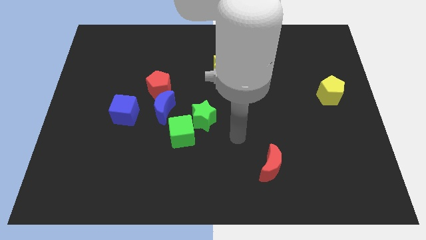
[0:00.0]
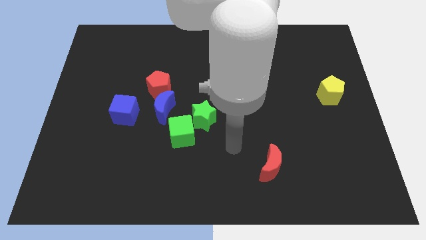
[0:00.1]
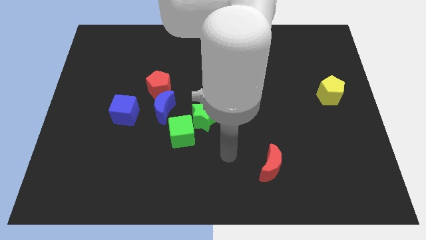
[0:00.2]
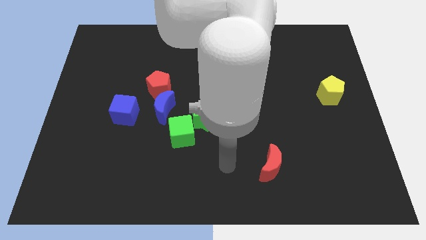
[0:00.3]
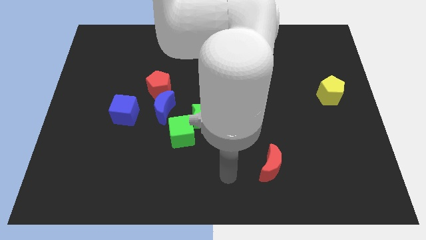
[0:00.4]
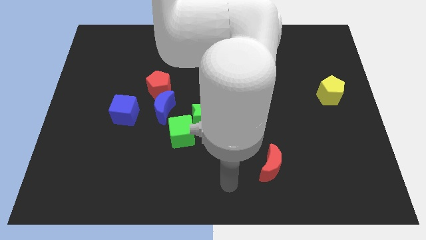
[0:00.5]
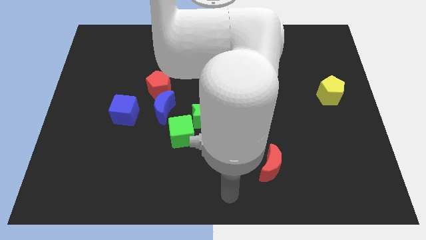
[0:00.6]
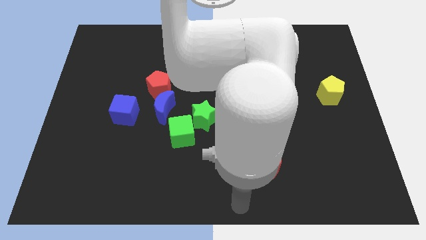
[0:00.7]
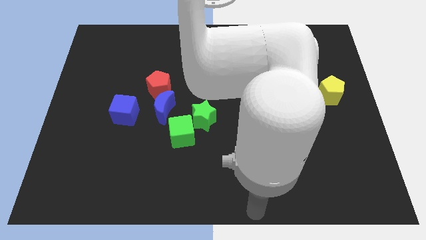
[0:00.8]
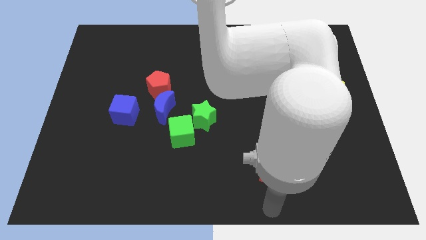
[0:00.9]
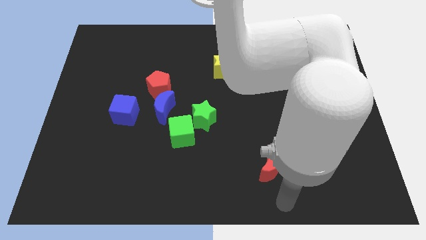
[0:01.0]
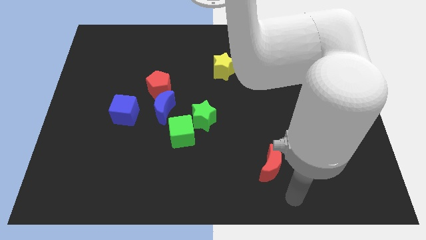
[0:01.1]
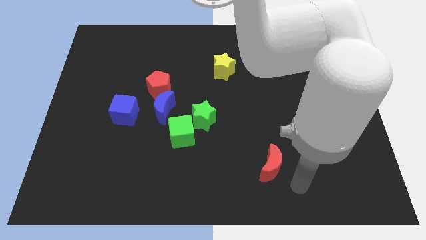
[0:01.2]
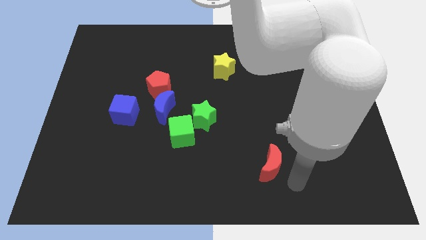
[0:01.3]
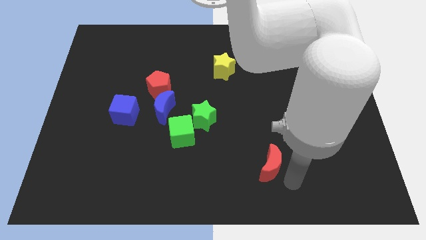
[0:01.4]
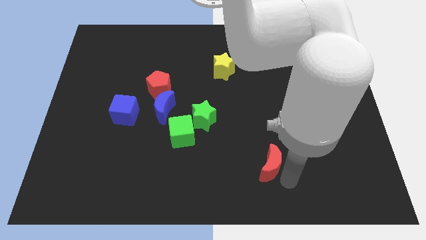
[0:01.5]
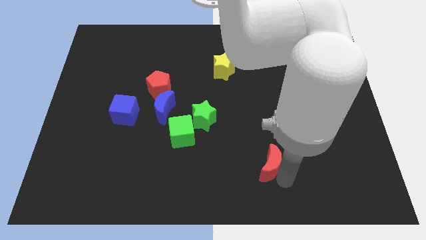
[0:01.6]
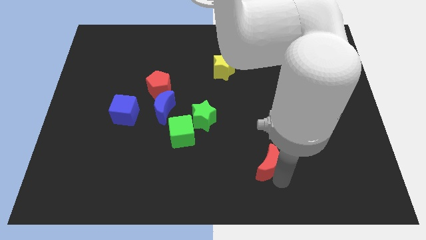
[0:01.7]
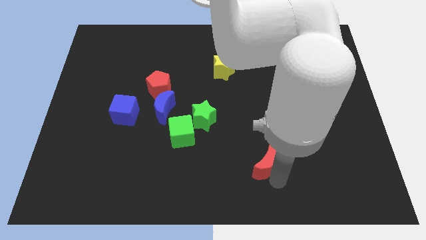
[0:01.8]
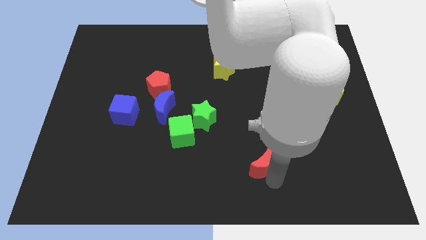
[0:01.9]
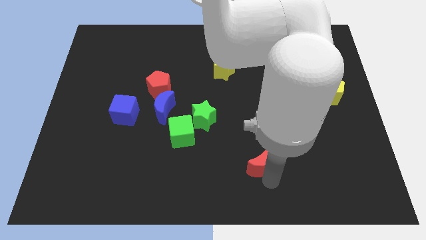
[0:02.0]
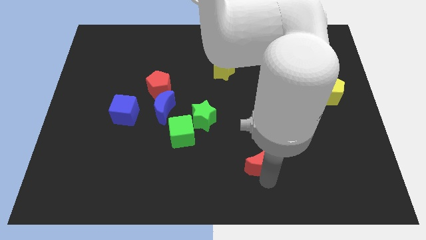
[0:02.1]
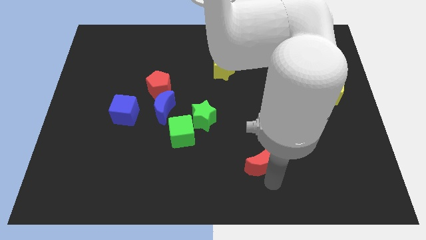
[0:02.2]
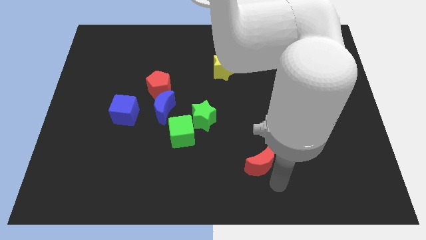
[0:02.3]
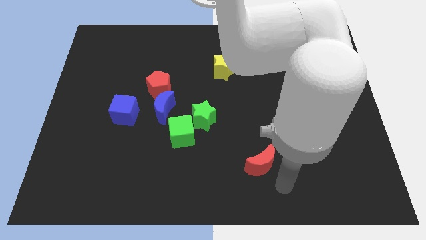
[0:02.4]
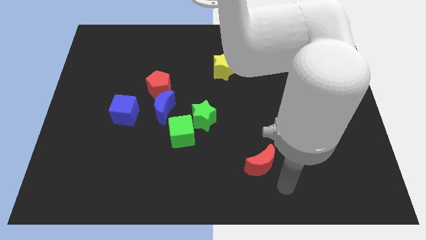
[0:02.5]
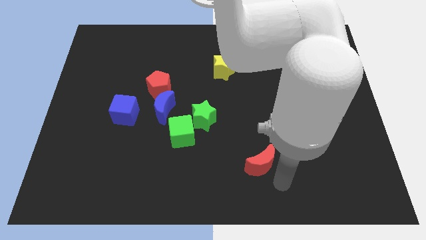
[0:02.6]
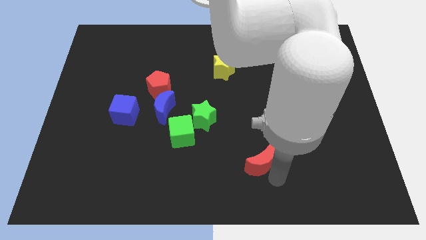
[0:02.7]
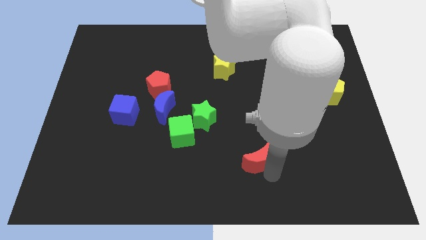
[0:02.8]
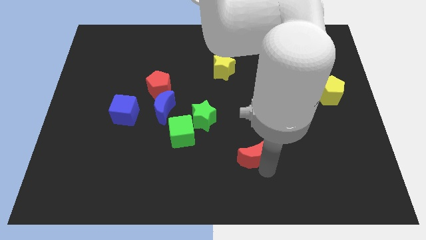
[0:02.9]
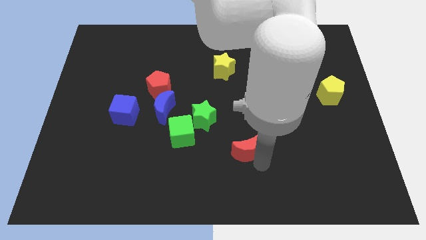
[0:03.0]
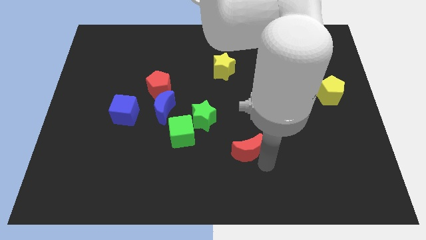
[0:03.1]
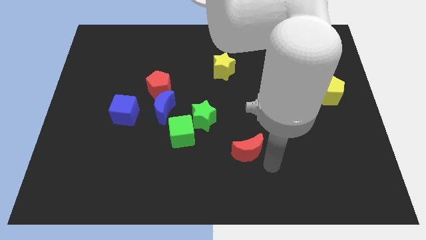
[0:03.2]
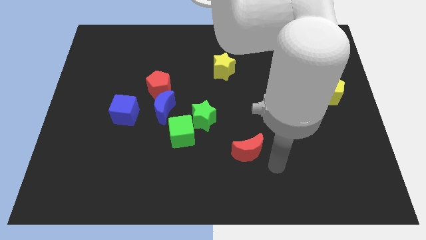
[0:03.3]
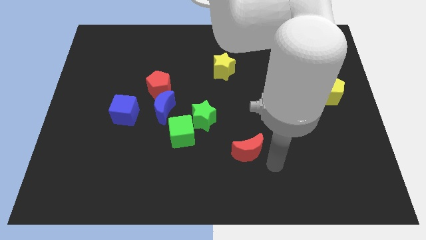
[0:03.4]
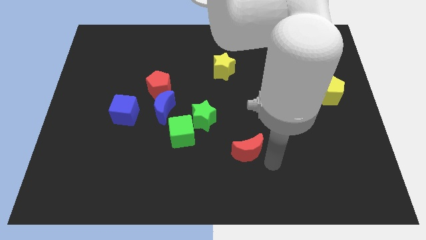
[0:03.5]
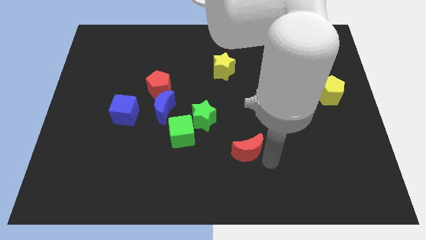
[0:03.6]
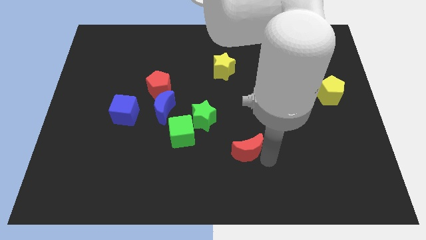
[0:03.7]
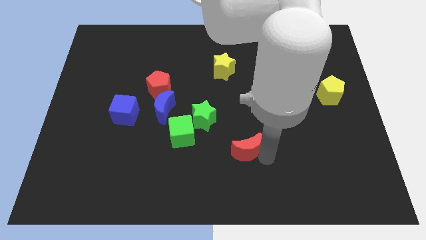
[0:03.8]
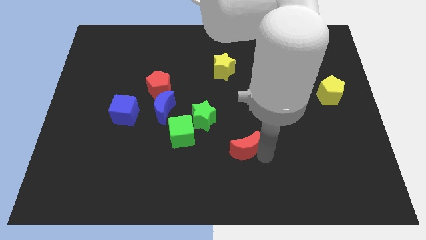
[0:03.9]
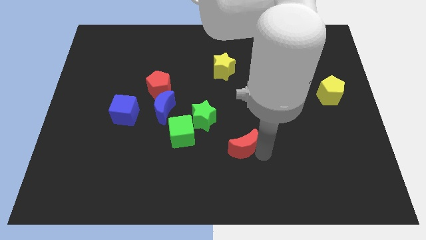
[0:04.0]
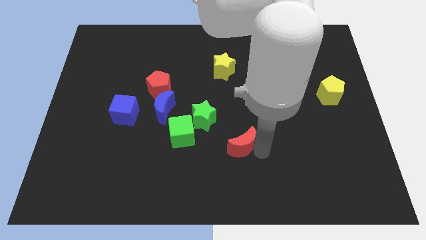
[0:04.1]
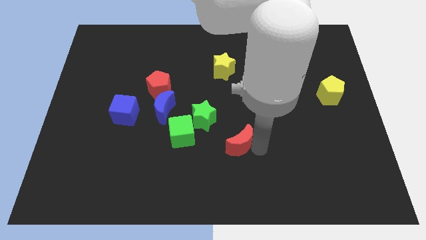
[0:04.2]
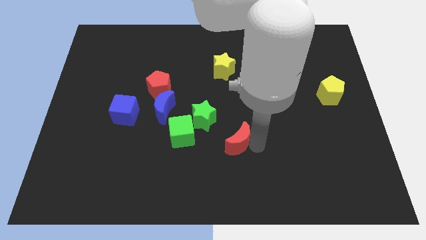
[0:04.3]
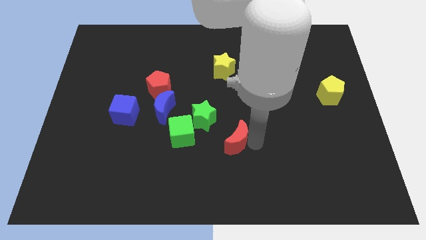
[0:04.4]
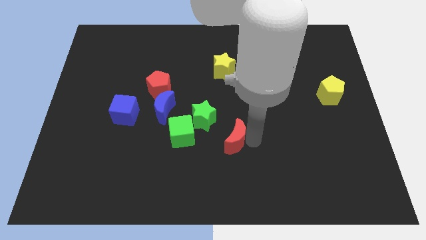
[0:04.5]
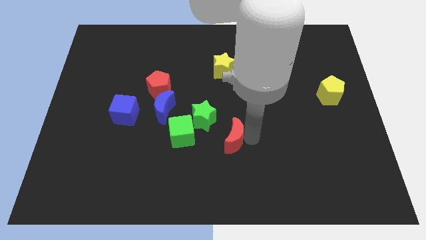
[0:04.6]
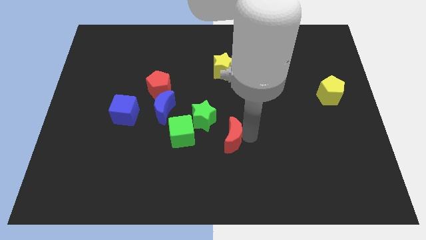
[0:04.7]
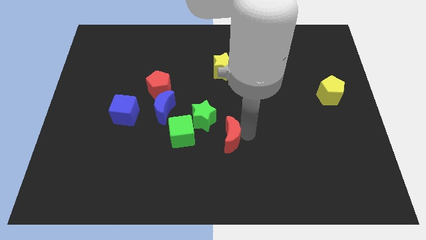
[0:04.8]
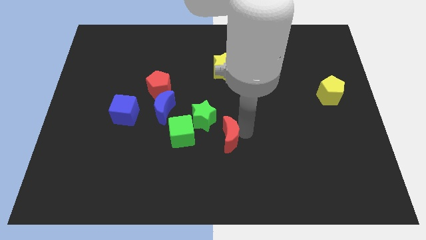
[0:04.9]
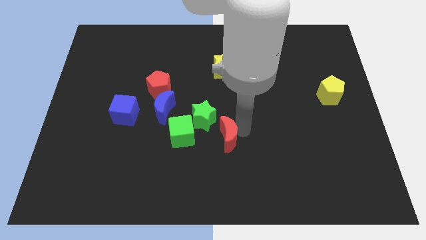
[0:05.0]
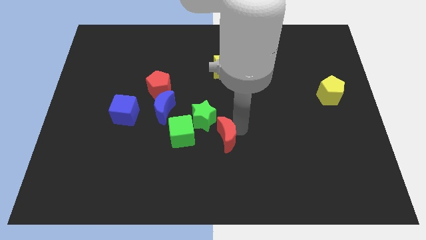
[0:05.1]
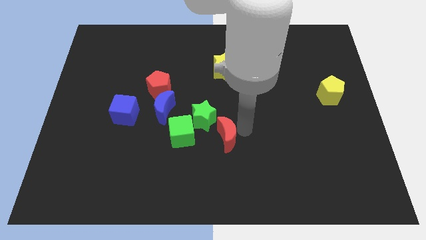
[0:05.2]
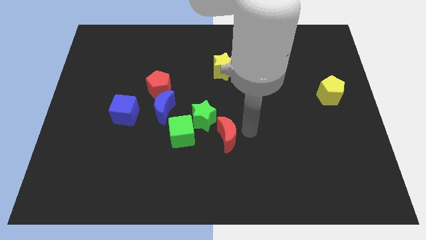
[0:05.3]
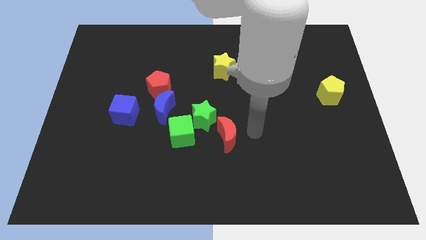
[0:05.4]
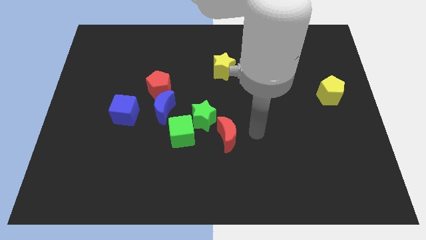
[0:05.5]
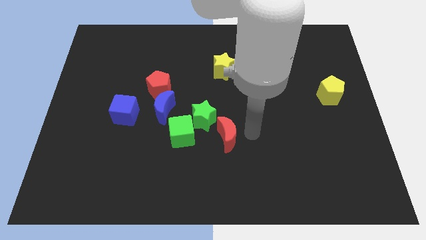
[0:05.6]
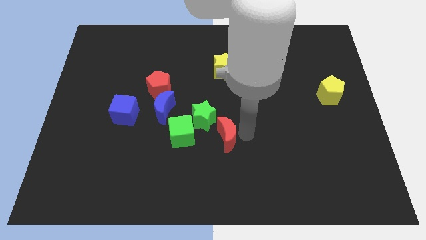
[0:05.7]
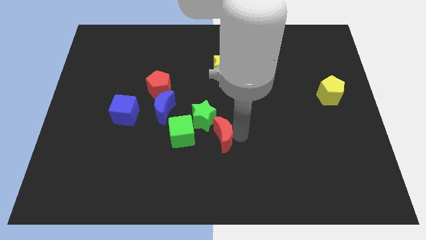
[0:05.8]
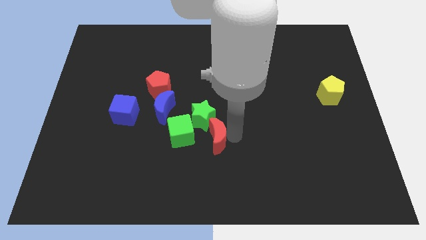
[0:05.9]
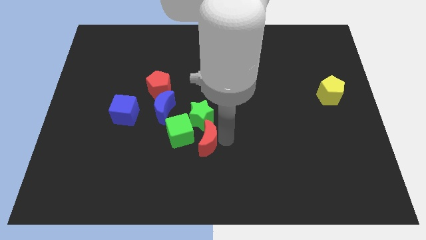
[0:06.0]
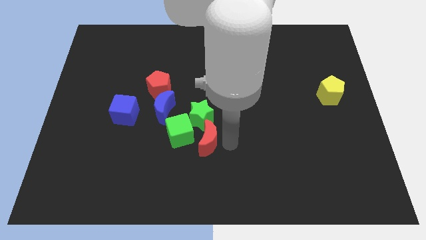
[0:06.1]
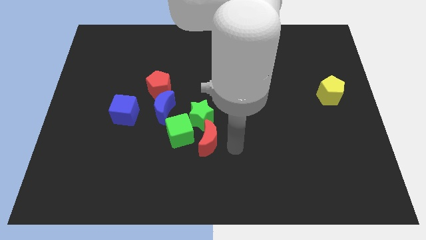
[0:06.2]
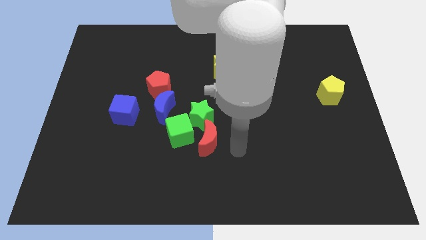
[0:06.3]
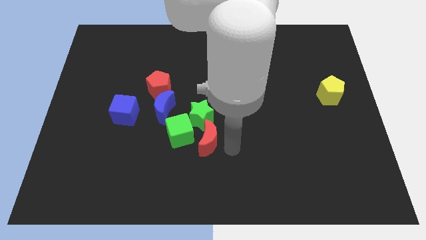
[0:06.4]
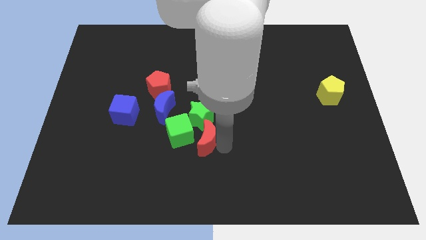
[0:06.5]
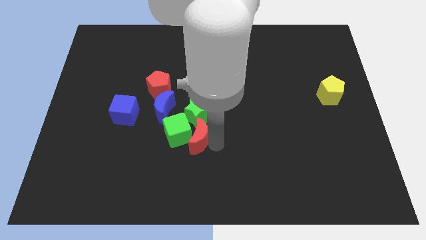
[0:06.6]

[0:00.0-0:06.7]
push the red moon next to the green cube

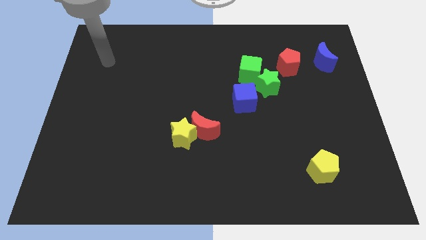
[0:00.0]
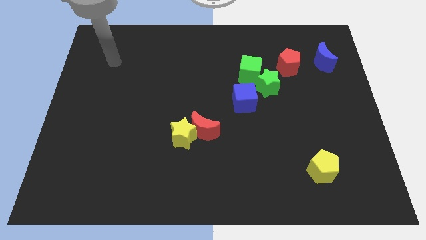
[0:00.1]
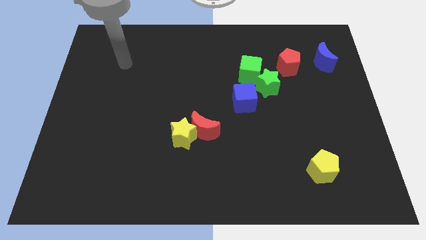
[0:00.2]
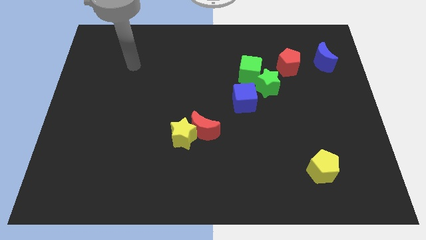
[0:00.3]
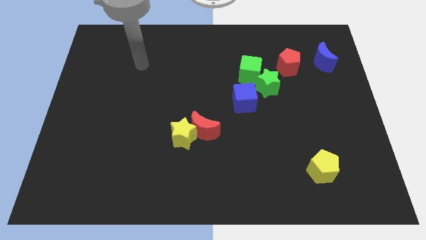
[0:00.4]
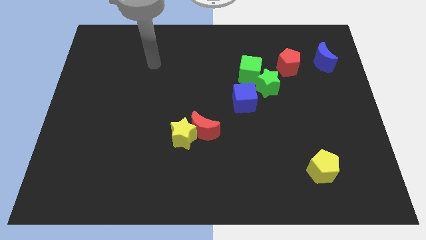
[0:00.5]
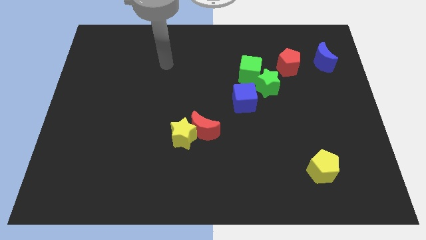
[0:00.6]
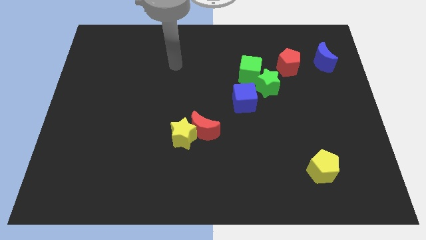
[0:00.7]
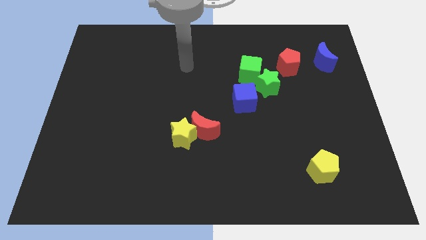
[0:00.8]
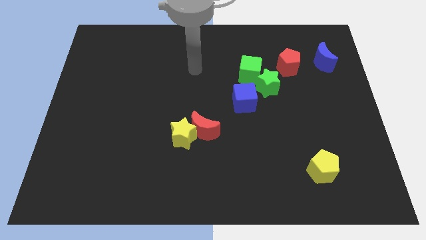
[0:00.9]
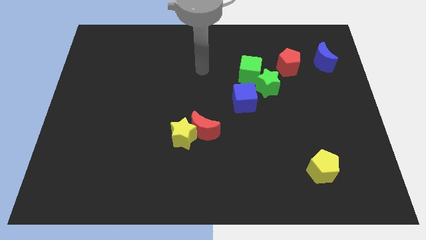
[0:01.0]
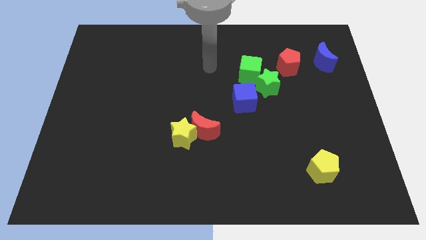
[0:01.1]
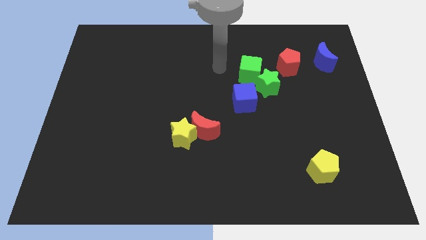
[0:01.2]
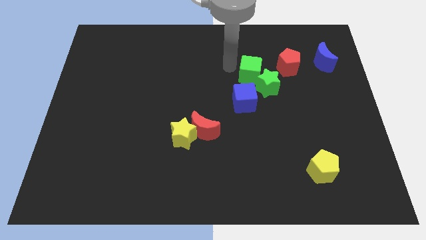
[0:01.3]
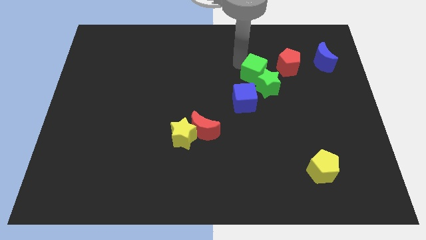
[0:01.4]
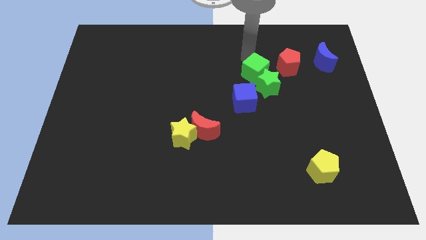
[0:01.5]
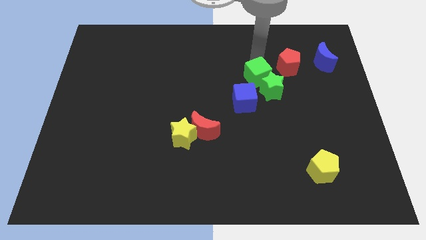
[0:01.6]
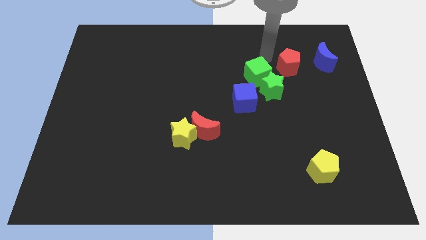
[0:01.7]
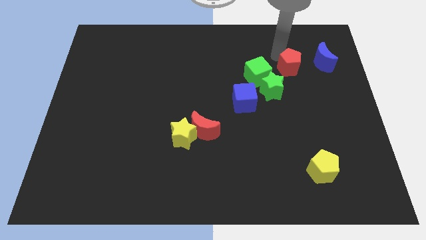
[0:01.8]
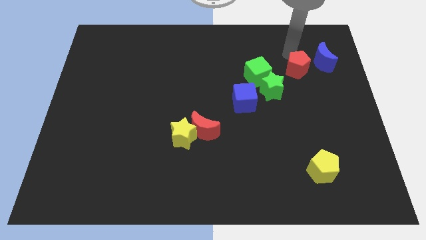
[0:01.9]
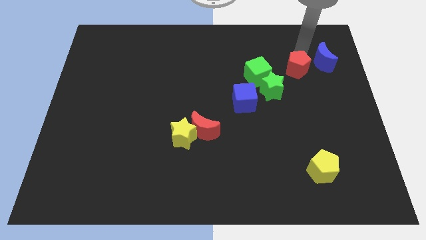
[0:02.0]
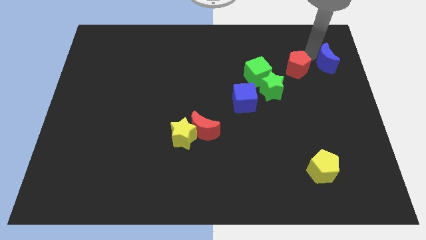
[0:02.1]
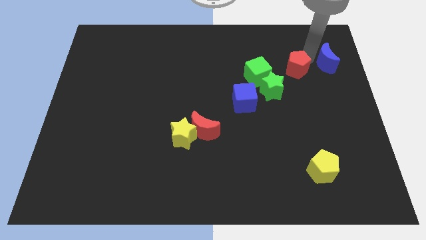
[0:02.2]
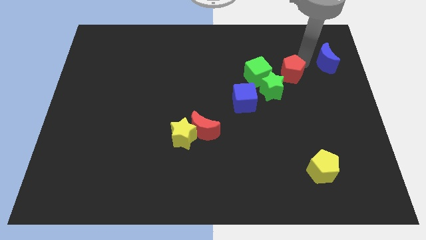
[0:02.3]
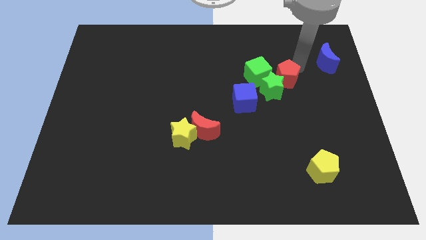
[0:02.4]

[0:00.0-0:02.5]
push the red pentagon next to the green star
